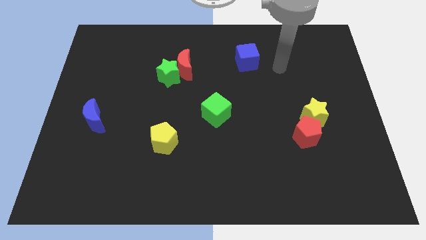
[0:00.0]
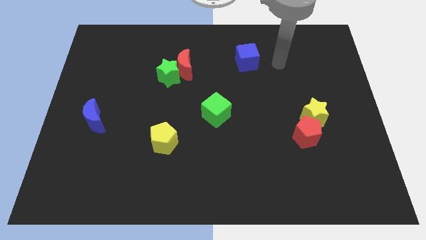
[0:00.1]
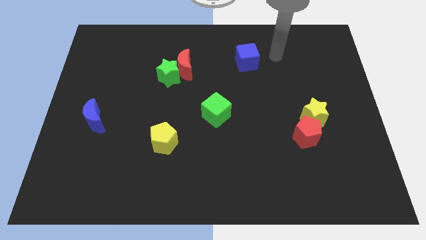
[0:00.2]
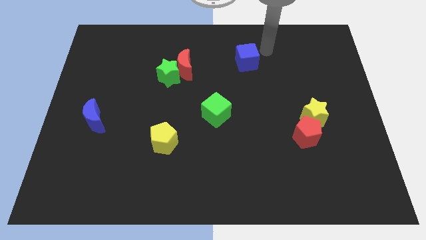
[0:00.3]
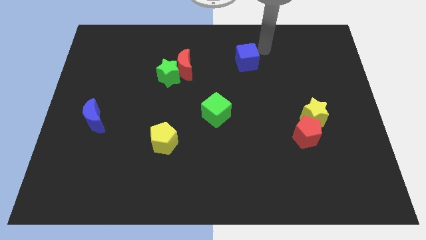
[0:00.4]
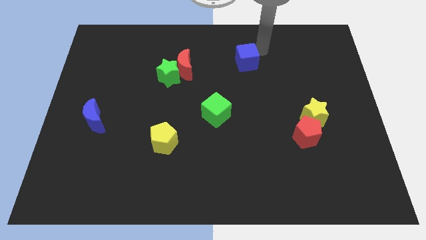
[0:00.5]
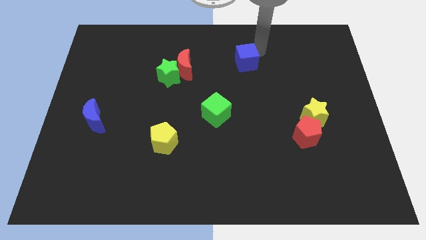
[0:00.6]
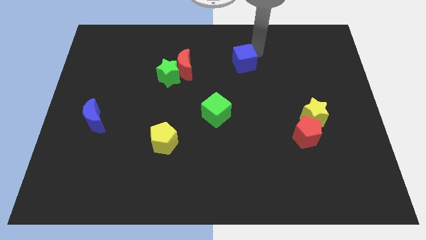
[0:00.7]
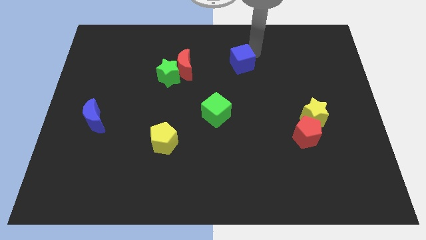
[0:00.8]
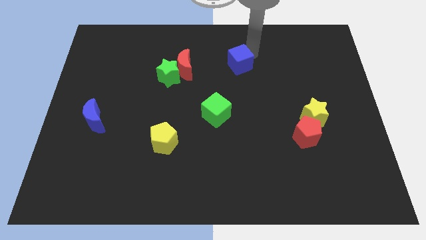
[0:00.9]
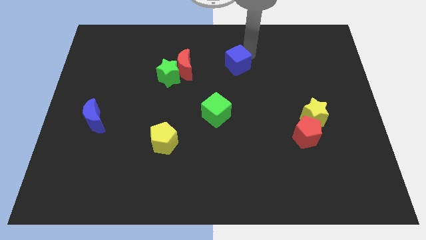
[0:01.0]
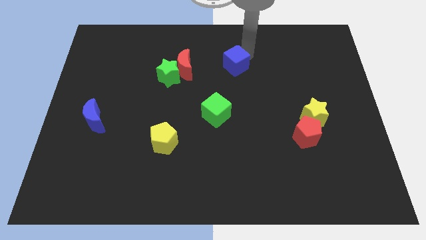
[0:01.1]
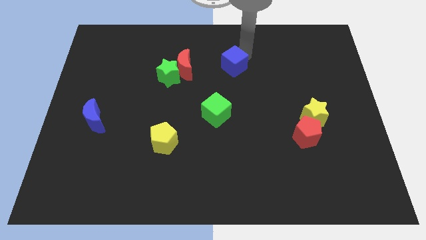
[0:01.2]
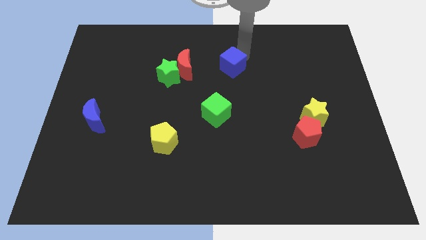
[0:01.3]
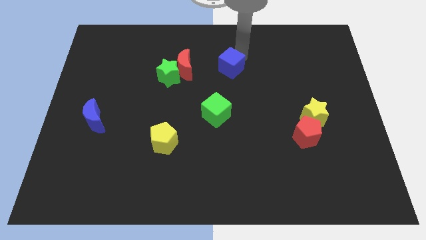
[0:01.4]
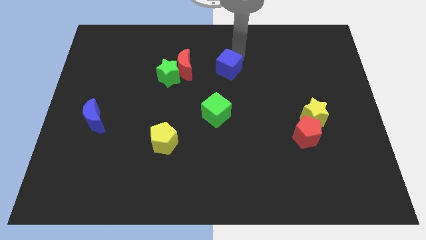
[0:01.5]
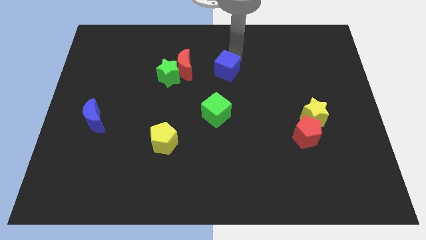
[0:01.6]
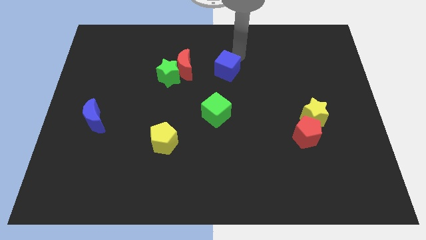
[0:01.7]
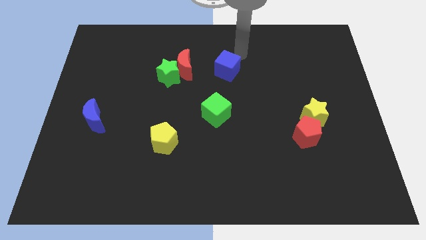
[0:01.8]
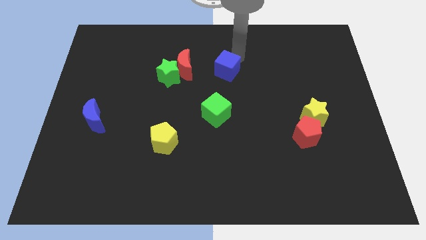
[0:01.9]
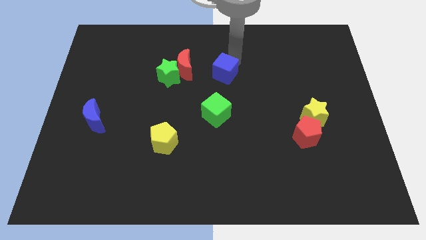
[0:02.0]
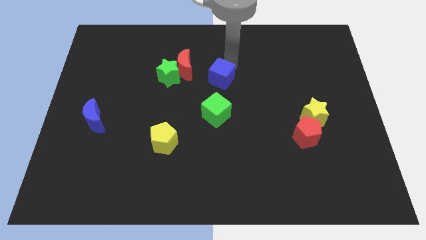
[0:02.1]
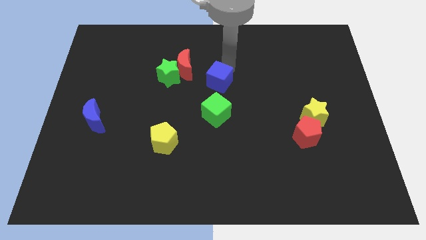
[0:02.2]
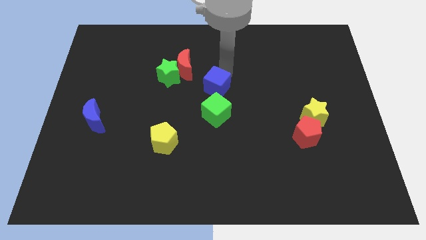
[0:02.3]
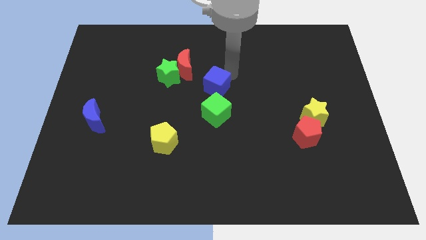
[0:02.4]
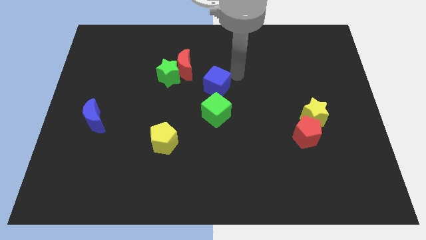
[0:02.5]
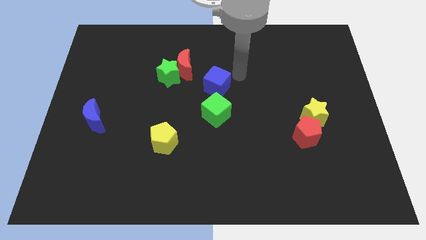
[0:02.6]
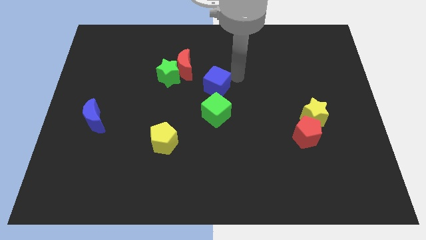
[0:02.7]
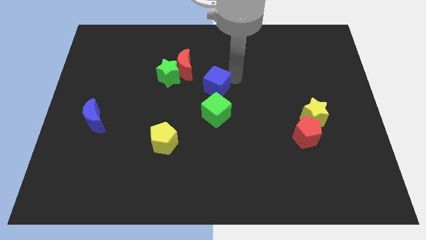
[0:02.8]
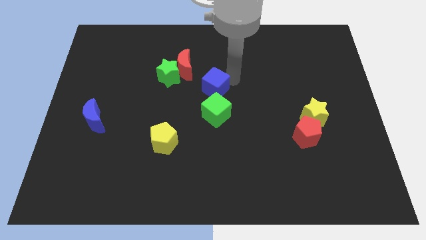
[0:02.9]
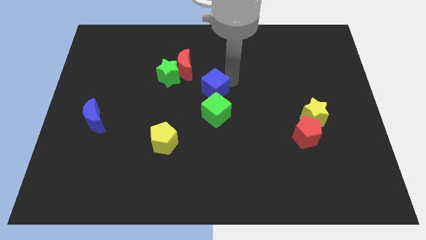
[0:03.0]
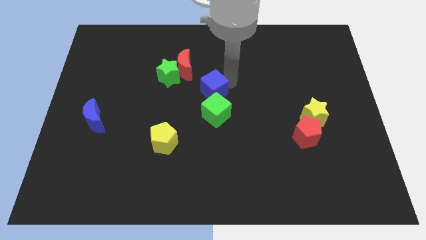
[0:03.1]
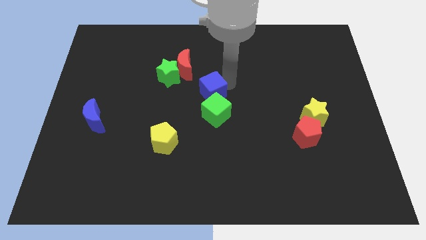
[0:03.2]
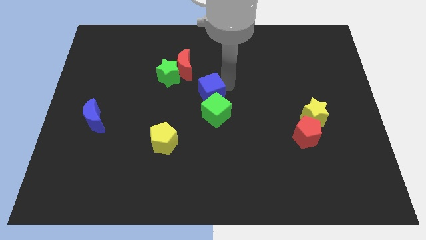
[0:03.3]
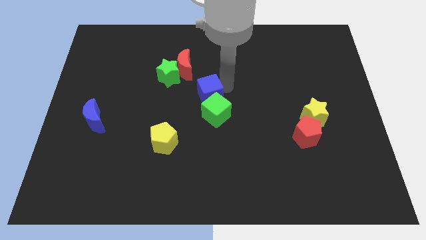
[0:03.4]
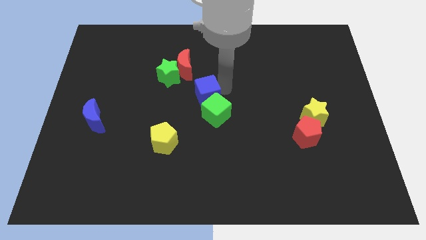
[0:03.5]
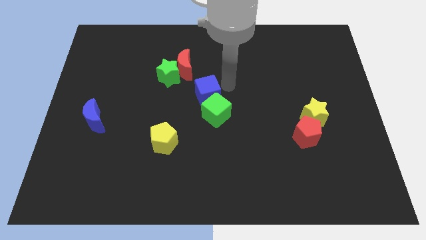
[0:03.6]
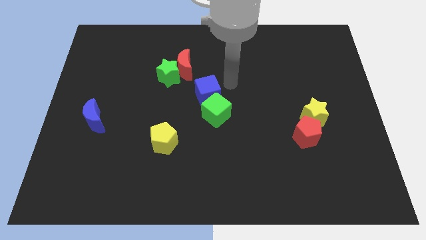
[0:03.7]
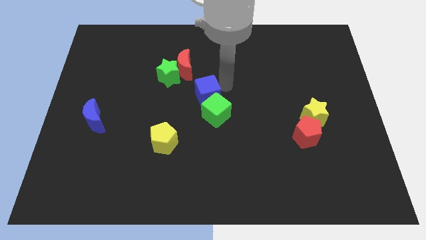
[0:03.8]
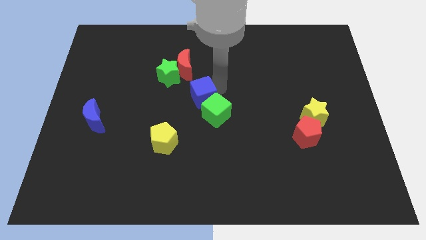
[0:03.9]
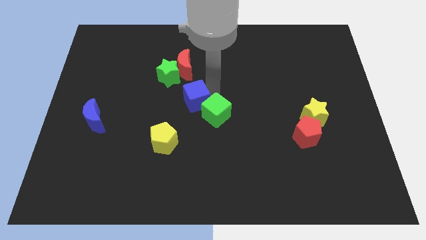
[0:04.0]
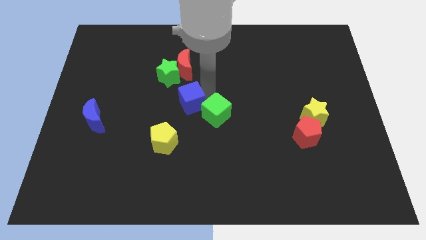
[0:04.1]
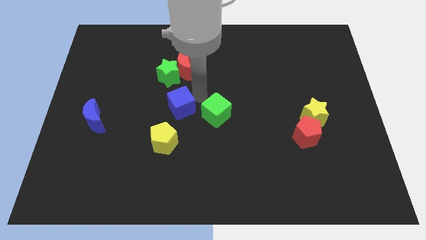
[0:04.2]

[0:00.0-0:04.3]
slide the blue cube down and then to the left

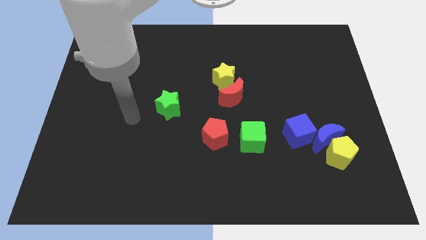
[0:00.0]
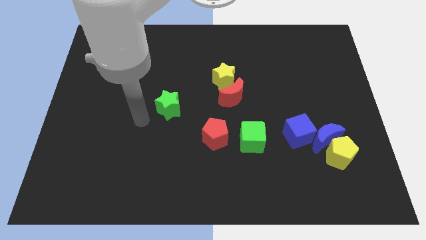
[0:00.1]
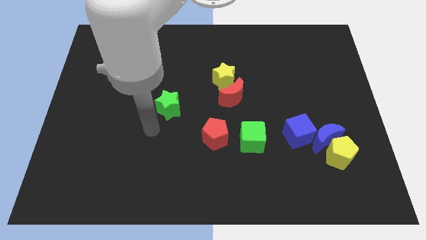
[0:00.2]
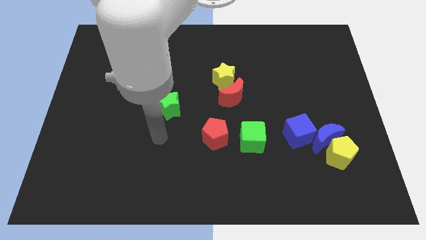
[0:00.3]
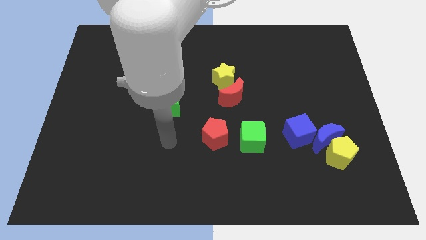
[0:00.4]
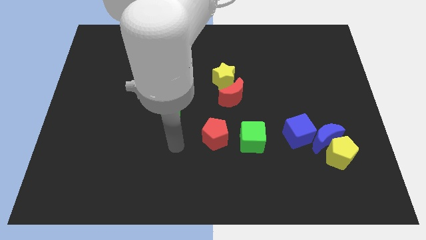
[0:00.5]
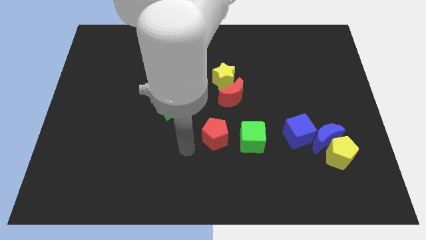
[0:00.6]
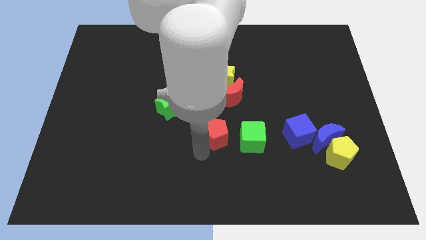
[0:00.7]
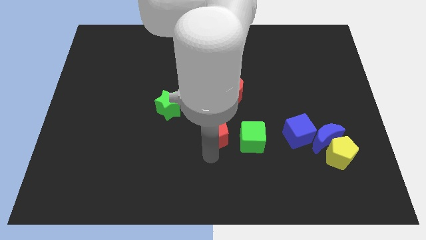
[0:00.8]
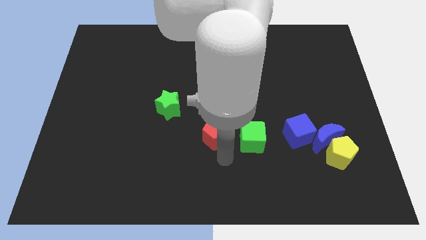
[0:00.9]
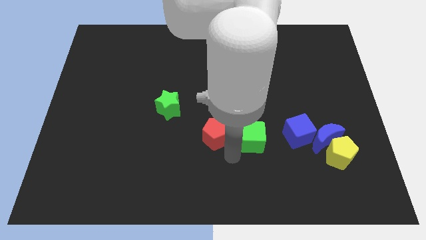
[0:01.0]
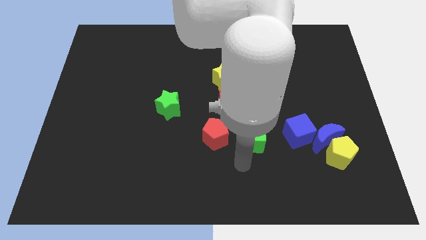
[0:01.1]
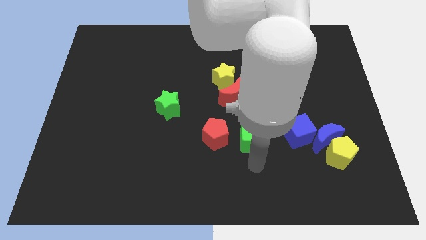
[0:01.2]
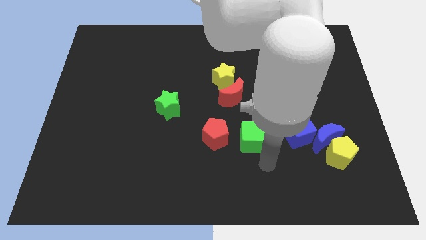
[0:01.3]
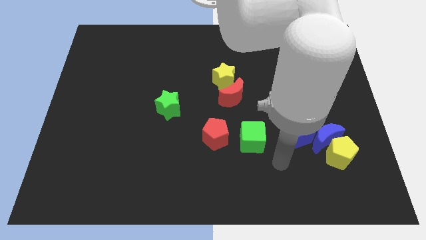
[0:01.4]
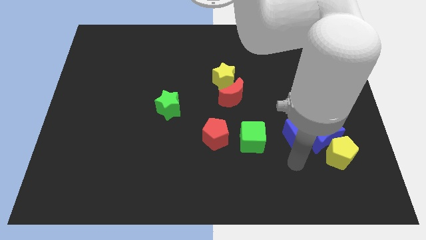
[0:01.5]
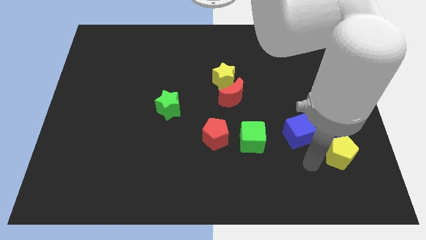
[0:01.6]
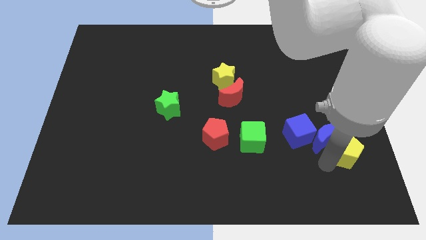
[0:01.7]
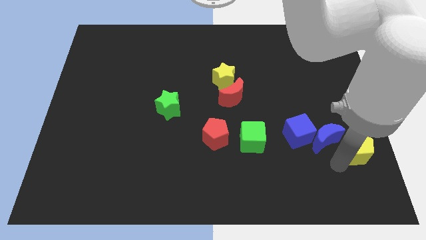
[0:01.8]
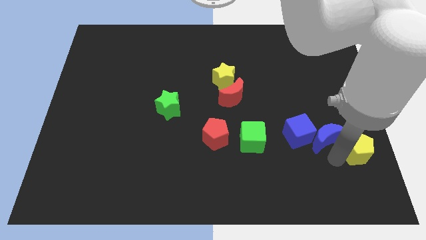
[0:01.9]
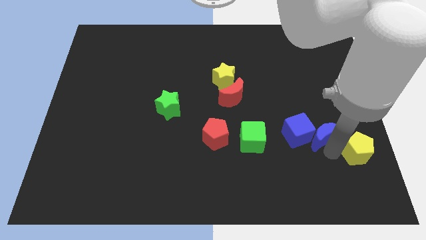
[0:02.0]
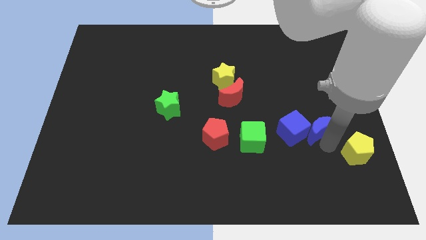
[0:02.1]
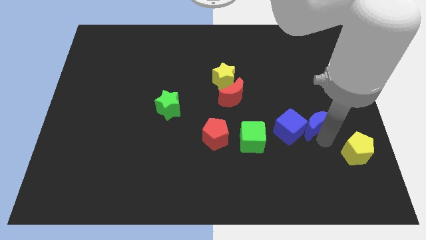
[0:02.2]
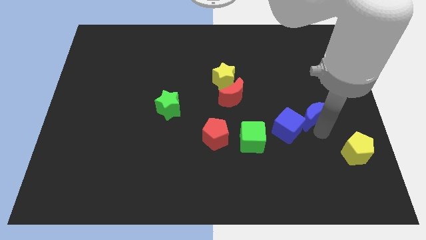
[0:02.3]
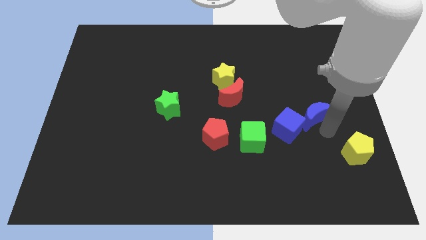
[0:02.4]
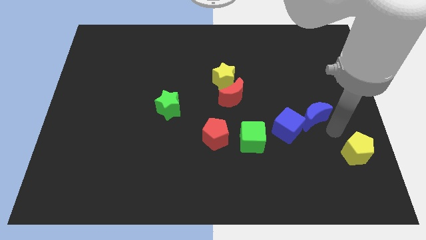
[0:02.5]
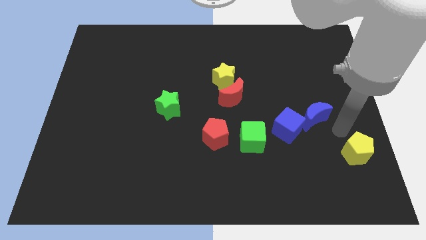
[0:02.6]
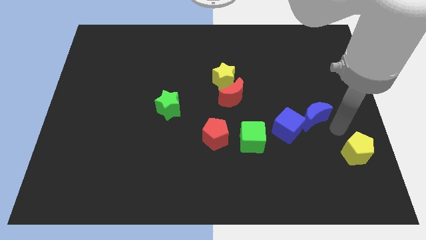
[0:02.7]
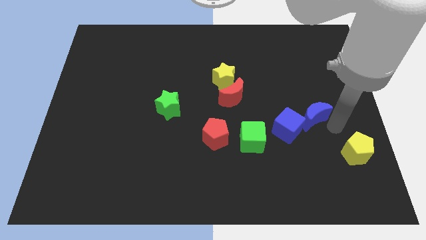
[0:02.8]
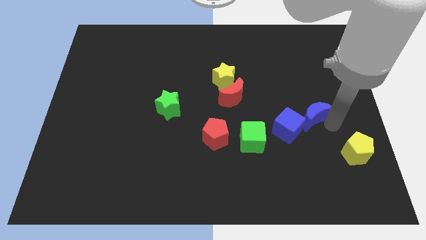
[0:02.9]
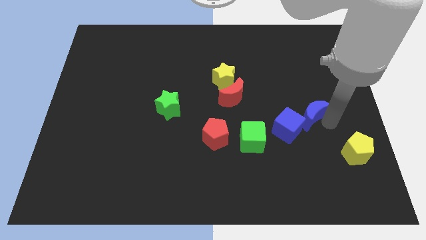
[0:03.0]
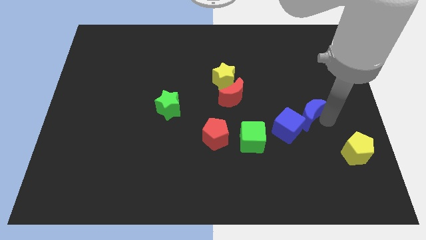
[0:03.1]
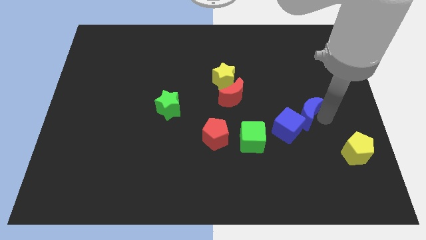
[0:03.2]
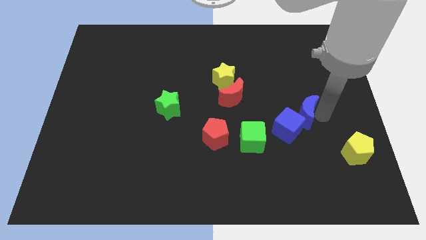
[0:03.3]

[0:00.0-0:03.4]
push the blue moon up and left a little bit
